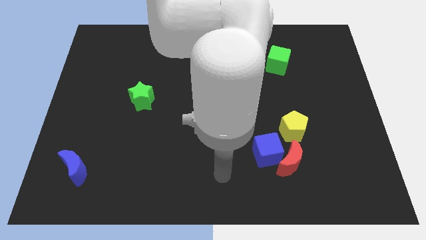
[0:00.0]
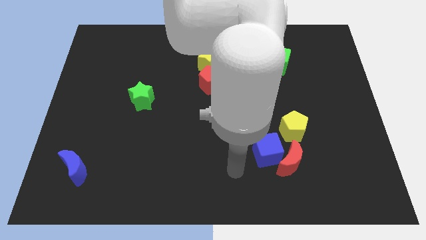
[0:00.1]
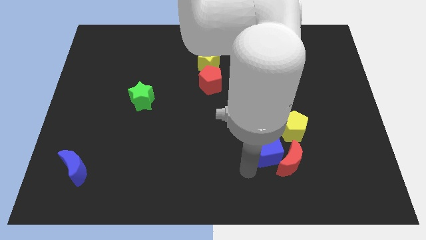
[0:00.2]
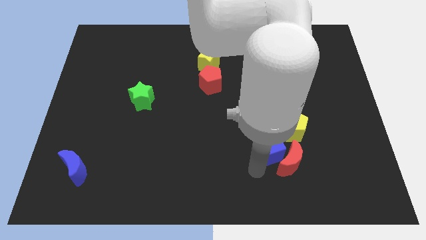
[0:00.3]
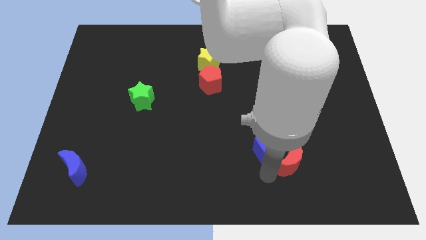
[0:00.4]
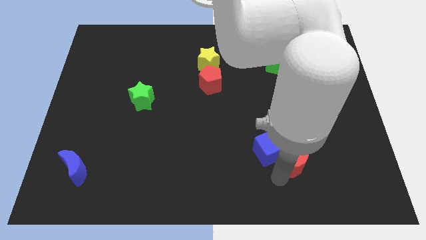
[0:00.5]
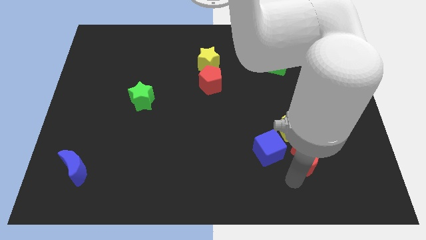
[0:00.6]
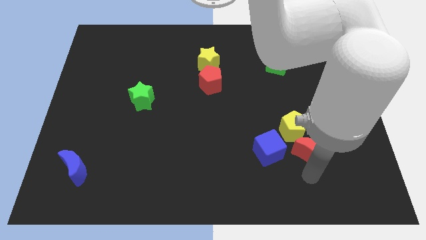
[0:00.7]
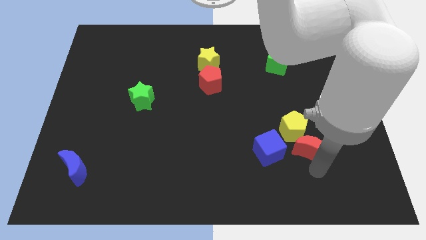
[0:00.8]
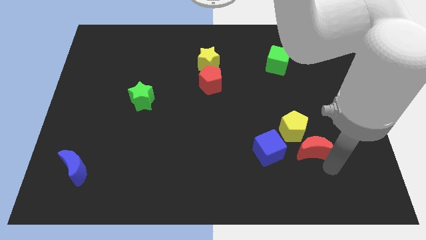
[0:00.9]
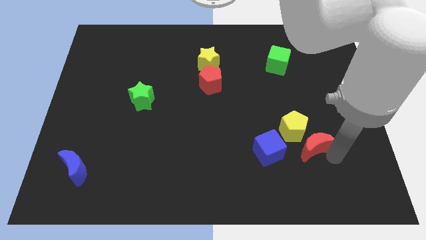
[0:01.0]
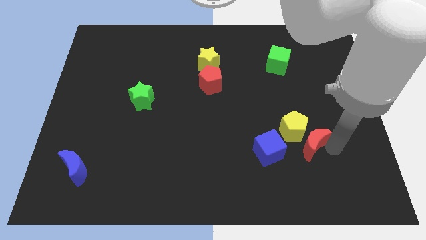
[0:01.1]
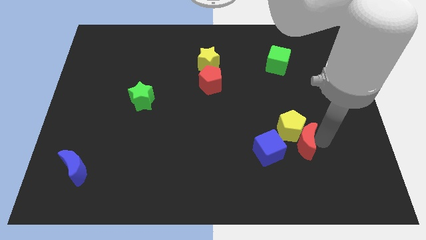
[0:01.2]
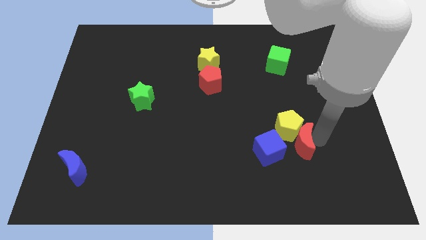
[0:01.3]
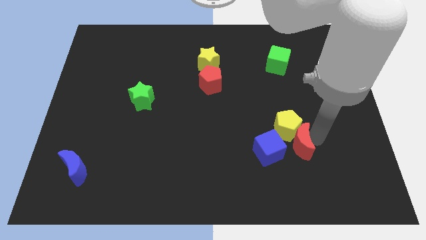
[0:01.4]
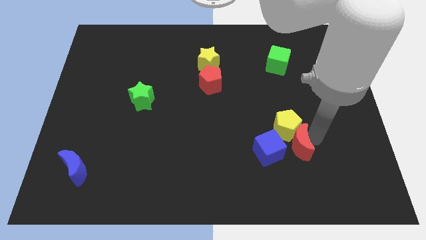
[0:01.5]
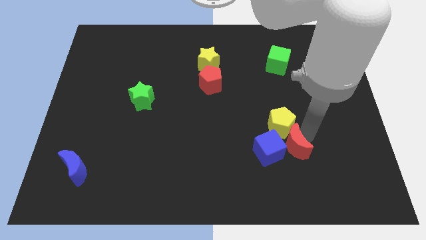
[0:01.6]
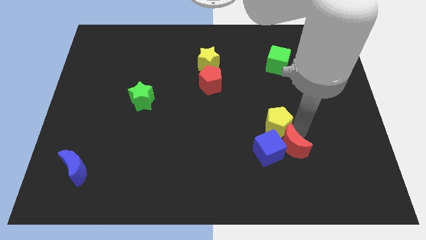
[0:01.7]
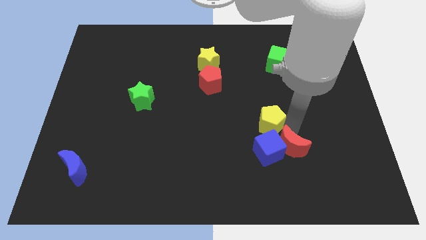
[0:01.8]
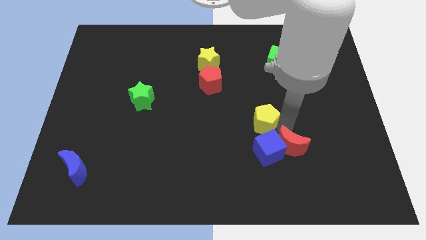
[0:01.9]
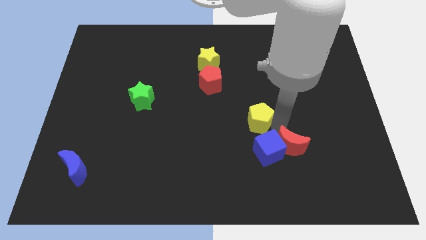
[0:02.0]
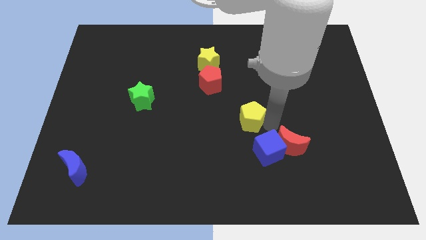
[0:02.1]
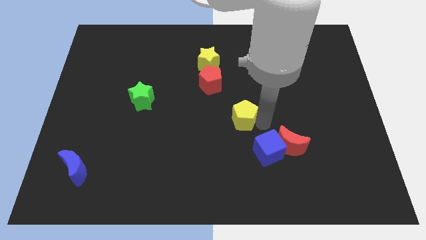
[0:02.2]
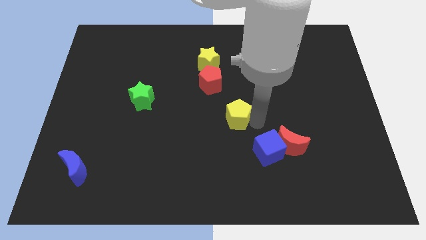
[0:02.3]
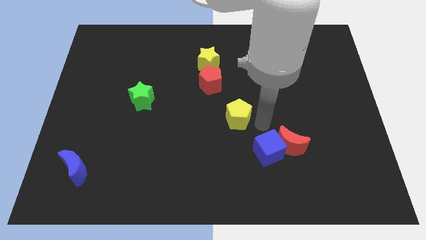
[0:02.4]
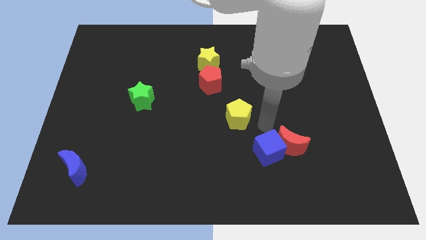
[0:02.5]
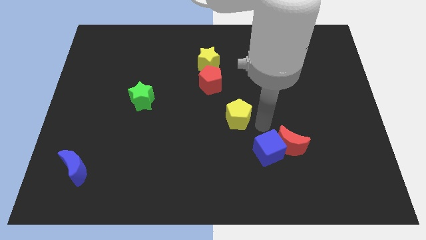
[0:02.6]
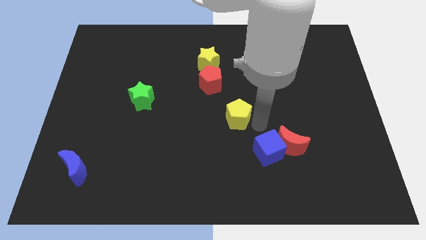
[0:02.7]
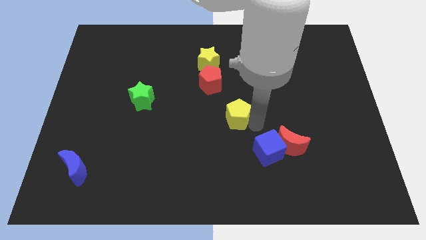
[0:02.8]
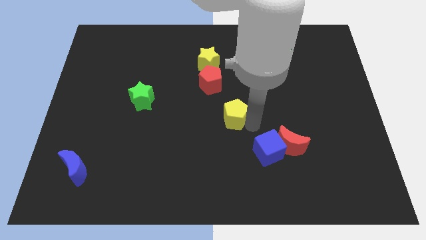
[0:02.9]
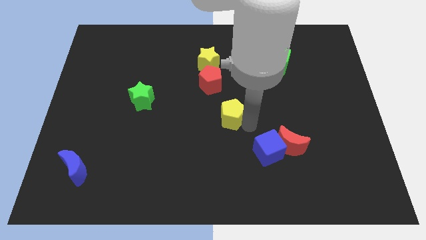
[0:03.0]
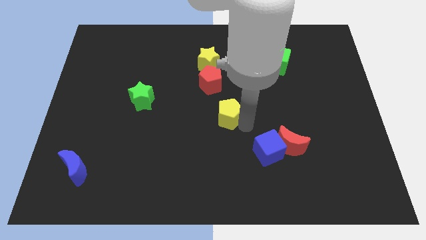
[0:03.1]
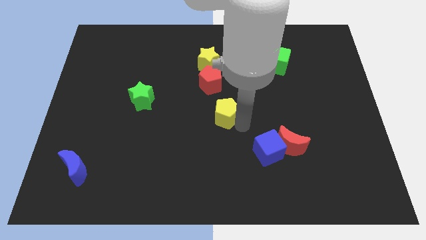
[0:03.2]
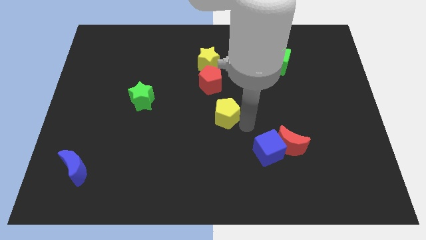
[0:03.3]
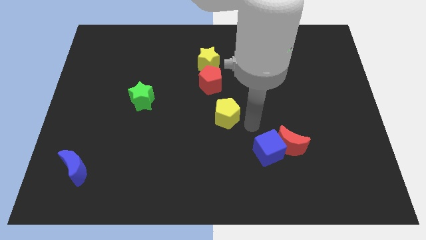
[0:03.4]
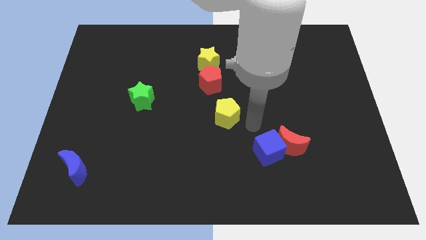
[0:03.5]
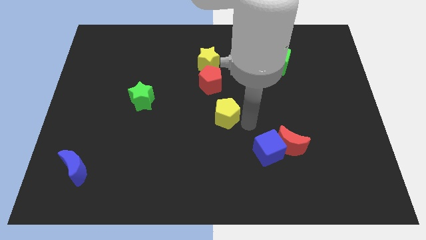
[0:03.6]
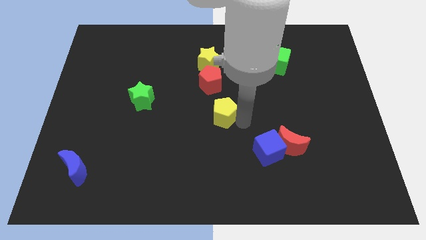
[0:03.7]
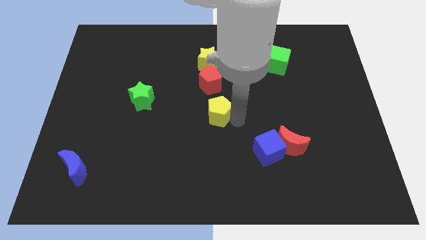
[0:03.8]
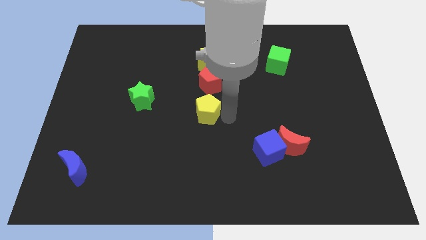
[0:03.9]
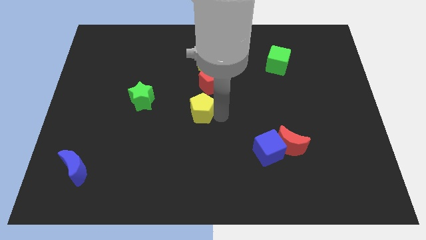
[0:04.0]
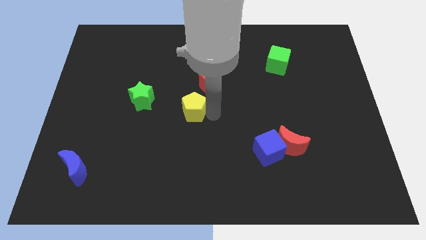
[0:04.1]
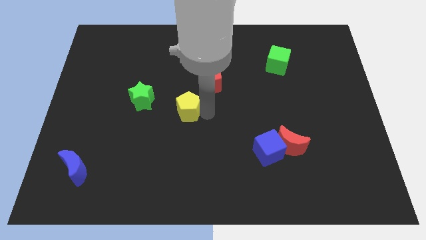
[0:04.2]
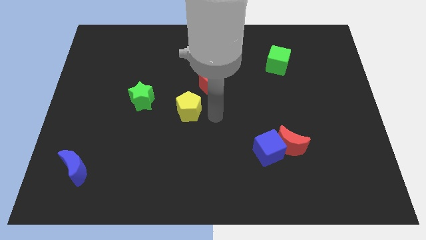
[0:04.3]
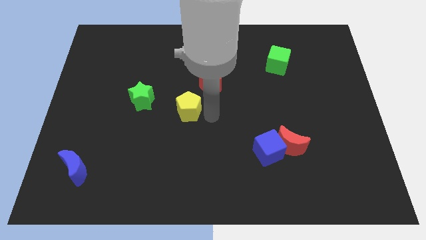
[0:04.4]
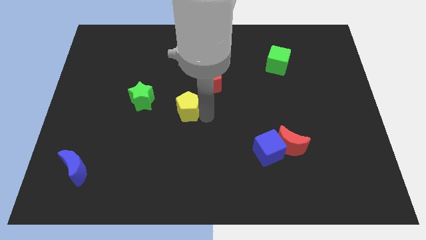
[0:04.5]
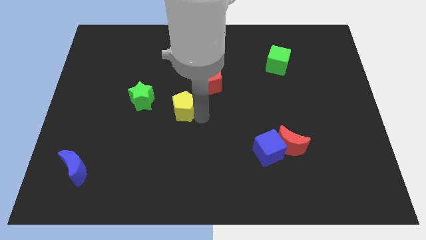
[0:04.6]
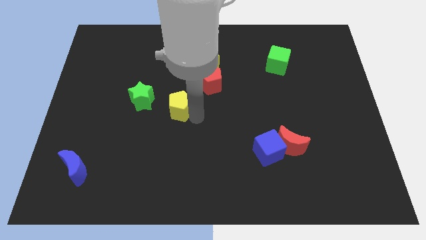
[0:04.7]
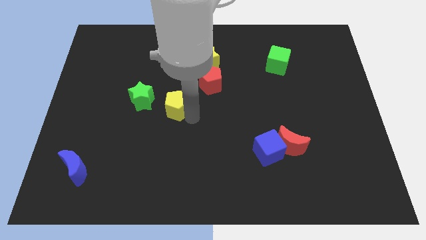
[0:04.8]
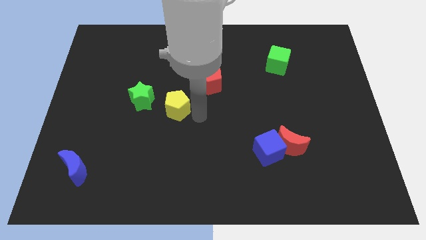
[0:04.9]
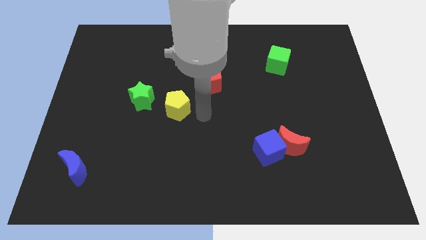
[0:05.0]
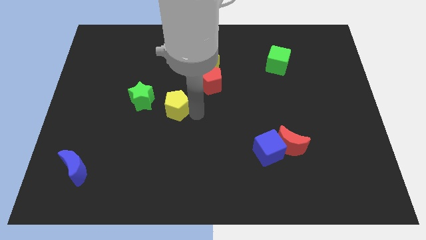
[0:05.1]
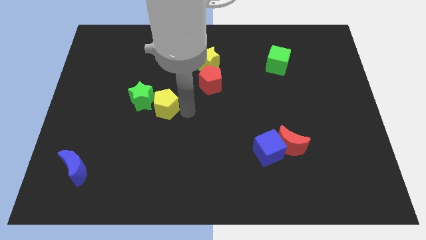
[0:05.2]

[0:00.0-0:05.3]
slide the yellow pentagon towards the green star

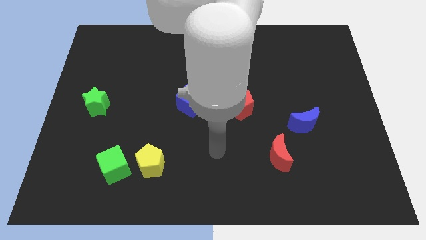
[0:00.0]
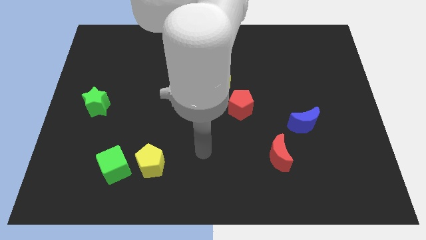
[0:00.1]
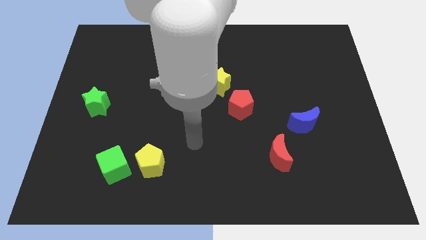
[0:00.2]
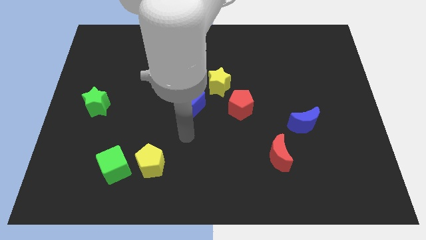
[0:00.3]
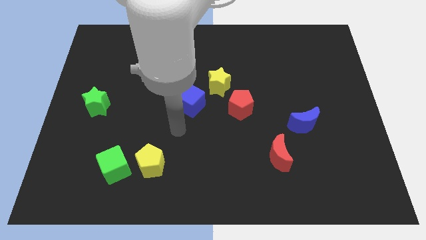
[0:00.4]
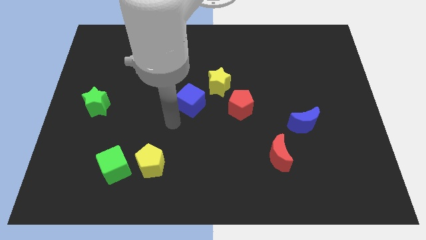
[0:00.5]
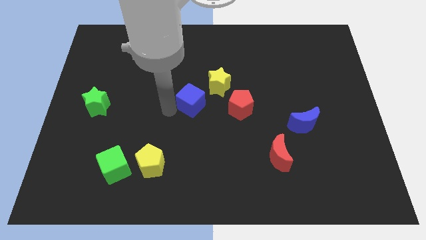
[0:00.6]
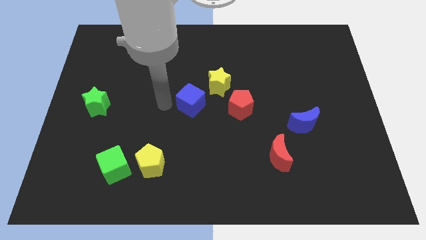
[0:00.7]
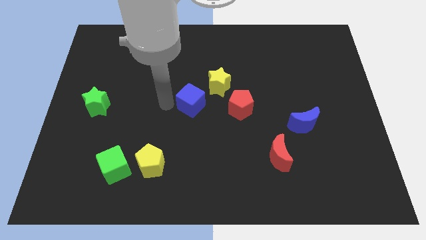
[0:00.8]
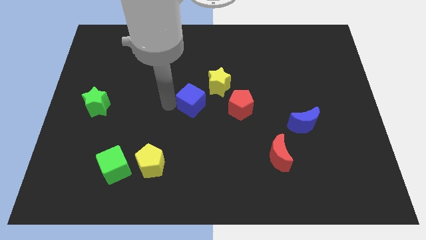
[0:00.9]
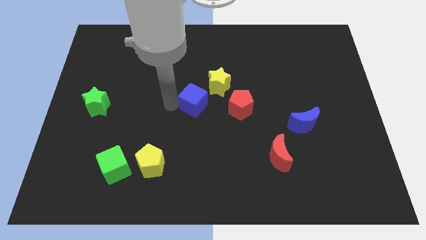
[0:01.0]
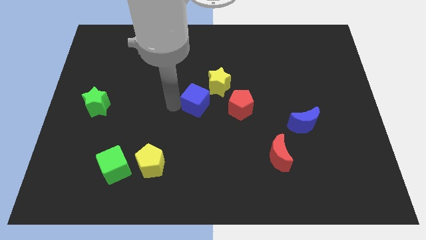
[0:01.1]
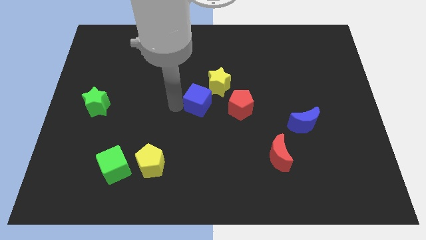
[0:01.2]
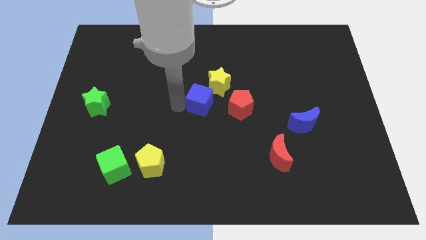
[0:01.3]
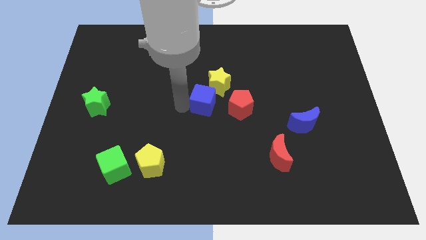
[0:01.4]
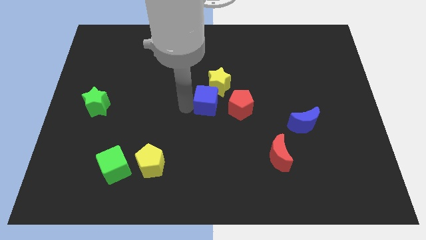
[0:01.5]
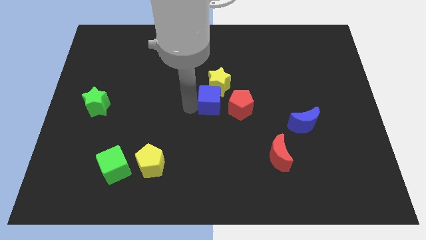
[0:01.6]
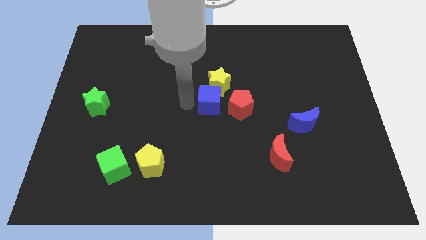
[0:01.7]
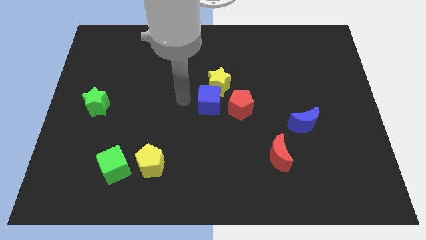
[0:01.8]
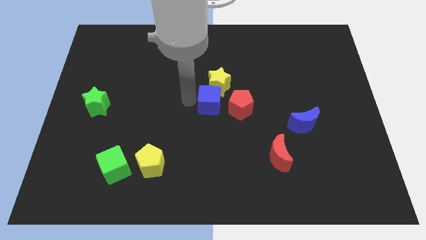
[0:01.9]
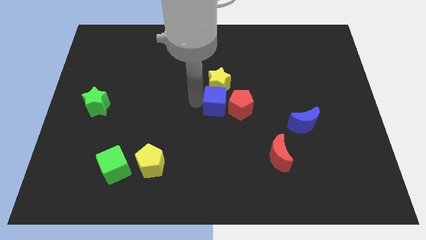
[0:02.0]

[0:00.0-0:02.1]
put the blue cube close to the red pentagon
